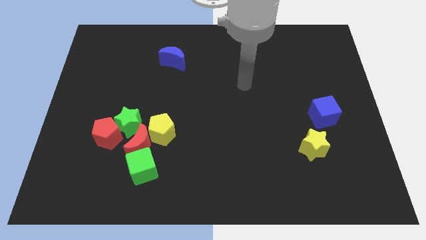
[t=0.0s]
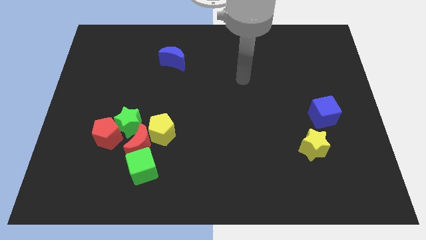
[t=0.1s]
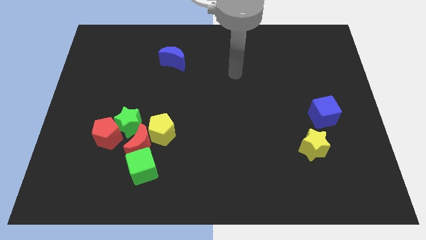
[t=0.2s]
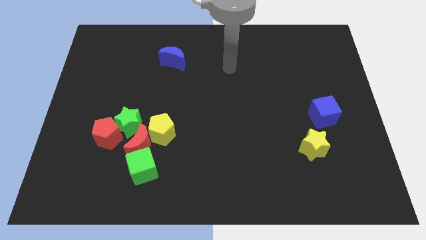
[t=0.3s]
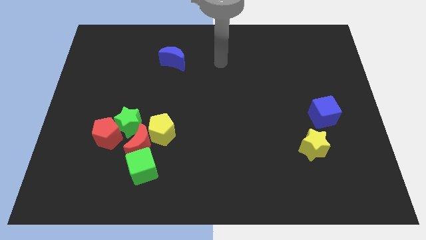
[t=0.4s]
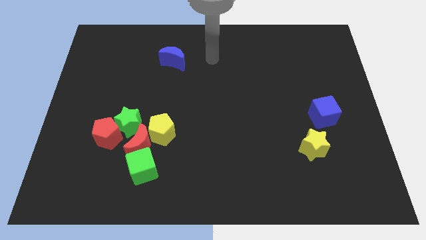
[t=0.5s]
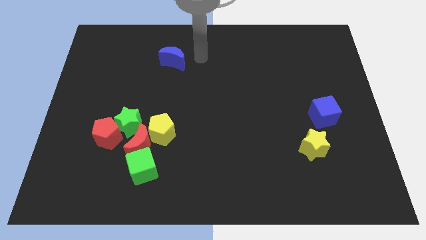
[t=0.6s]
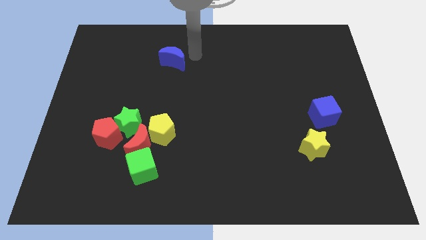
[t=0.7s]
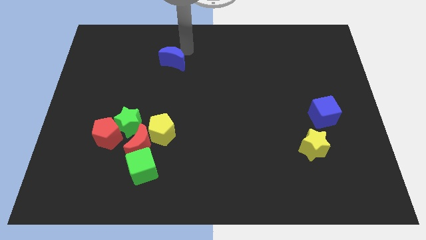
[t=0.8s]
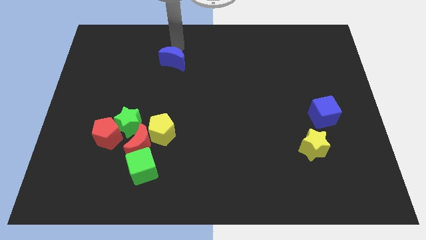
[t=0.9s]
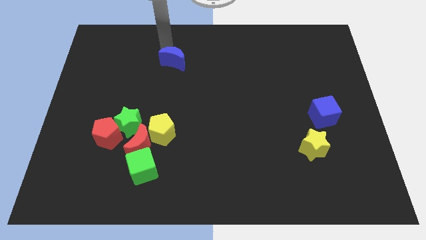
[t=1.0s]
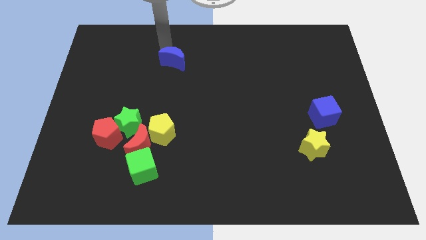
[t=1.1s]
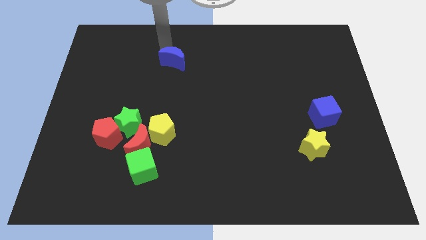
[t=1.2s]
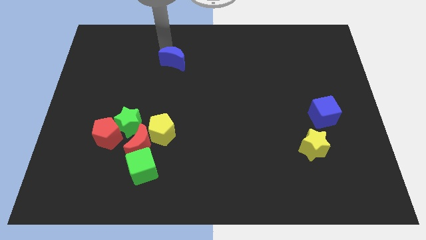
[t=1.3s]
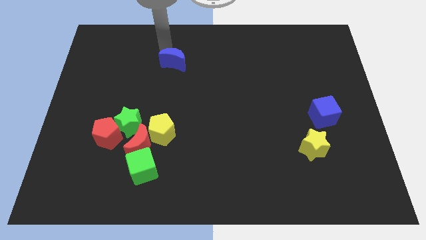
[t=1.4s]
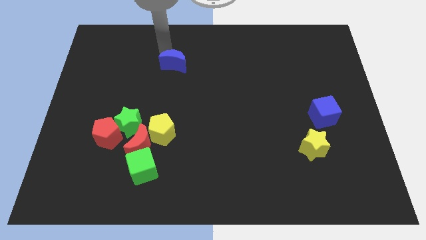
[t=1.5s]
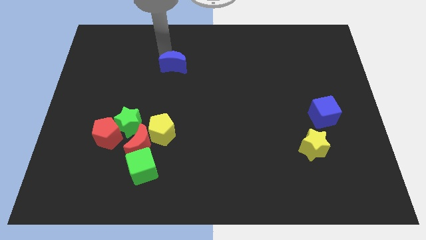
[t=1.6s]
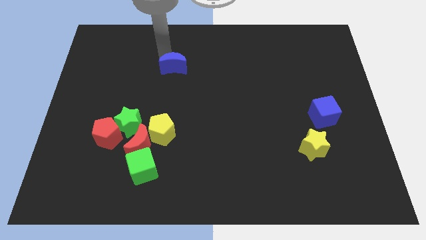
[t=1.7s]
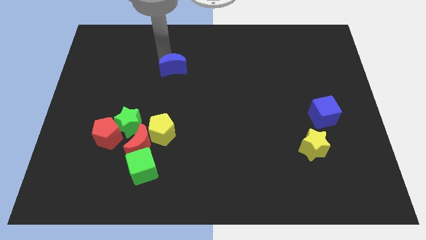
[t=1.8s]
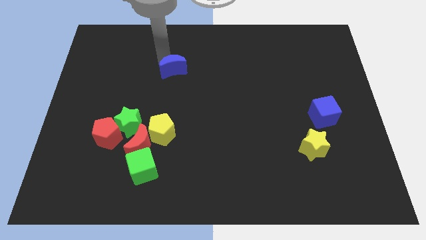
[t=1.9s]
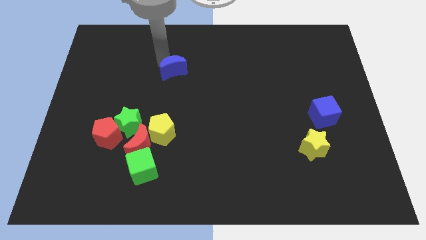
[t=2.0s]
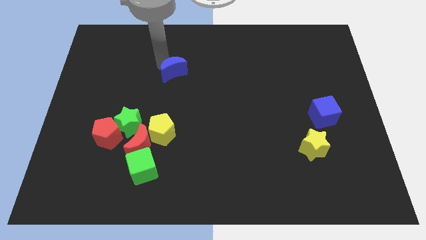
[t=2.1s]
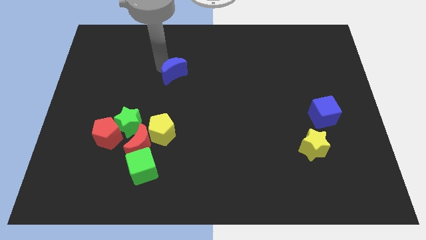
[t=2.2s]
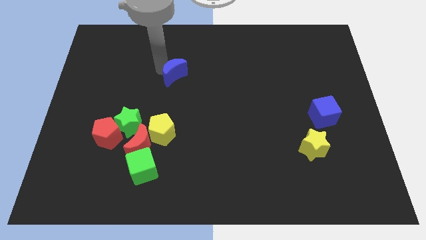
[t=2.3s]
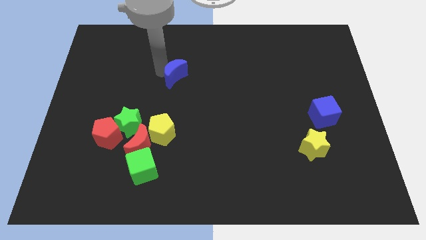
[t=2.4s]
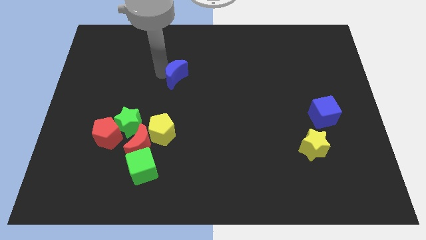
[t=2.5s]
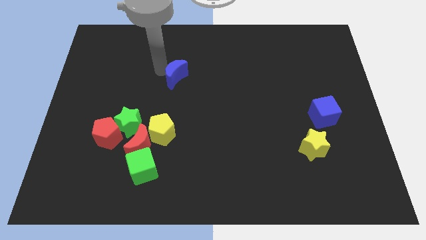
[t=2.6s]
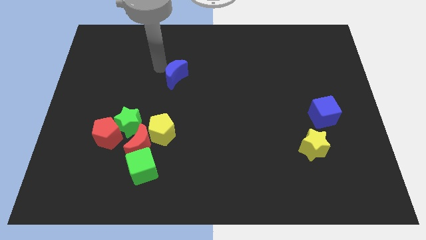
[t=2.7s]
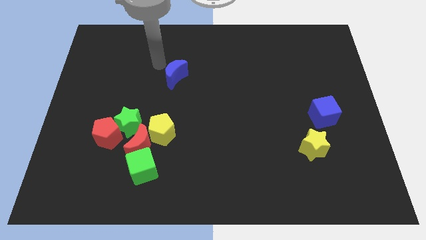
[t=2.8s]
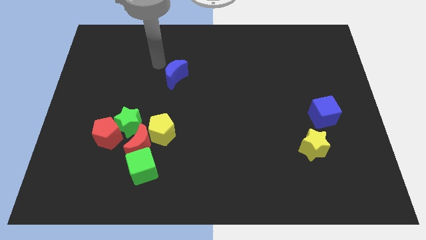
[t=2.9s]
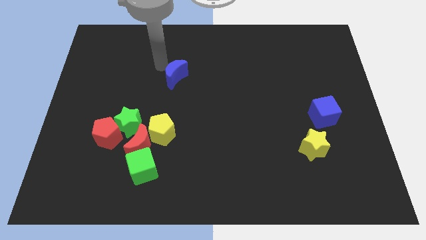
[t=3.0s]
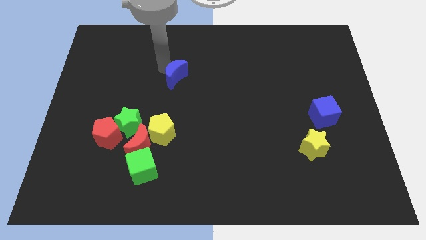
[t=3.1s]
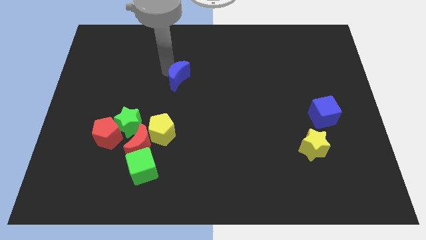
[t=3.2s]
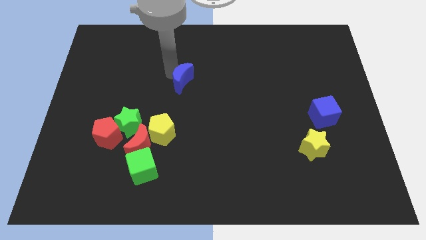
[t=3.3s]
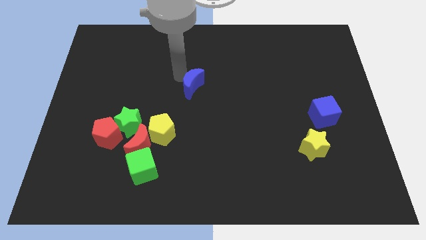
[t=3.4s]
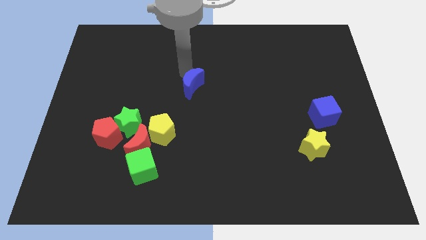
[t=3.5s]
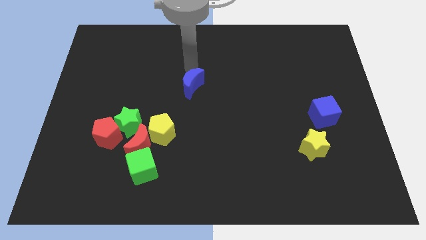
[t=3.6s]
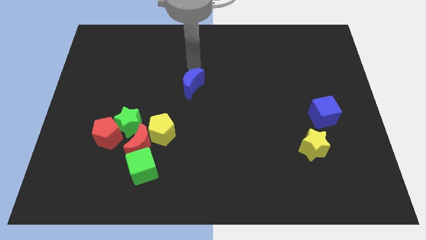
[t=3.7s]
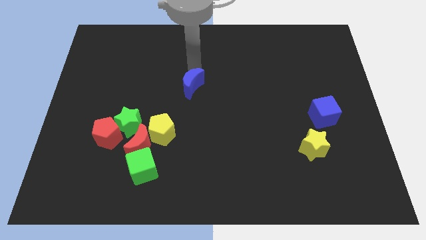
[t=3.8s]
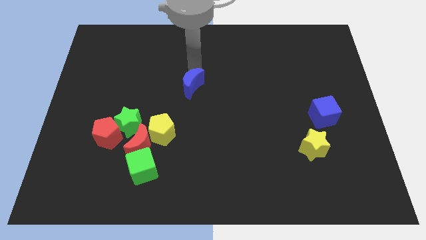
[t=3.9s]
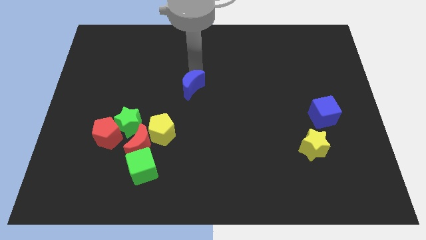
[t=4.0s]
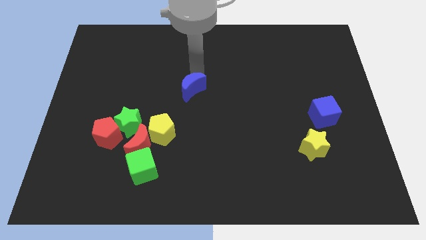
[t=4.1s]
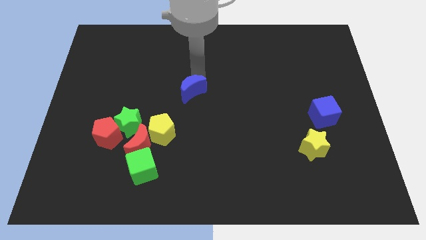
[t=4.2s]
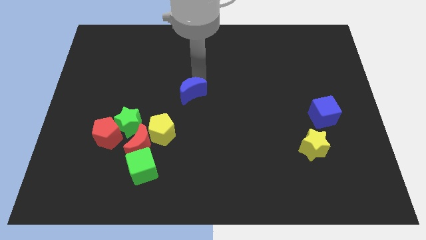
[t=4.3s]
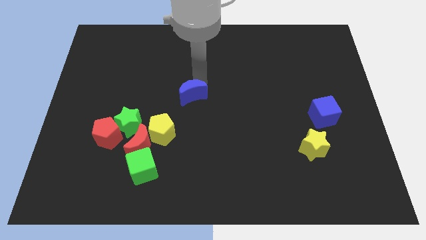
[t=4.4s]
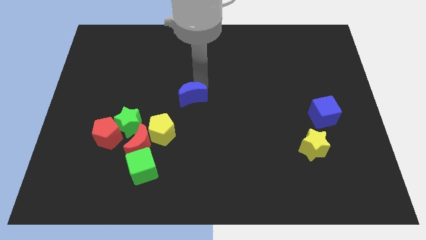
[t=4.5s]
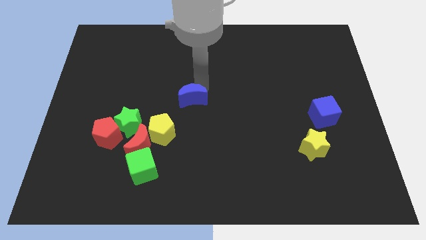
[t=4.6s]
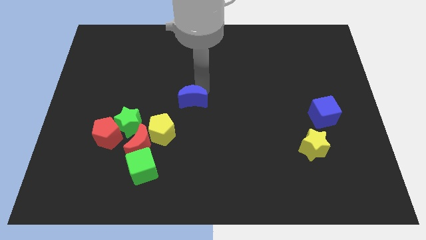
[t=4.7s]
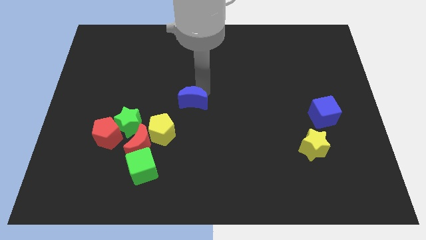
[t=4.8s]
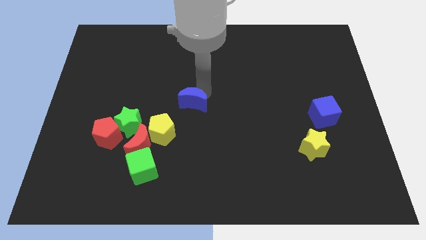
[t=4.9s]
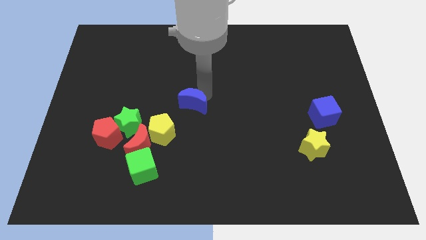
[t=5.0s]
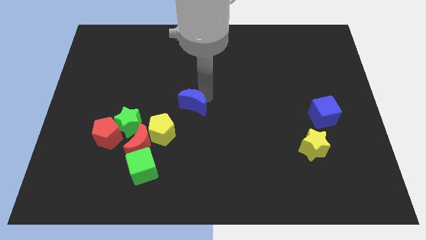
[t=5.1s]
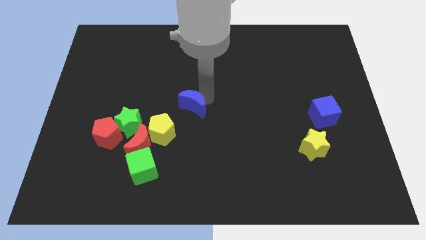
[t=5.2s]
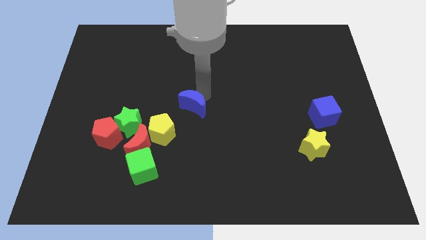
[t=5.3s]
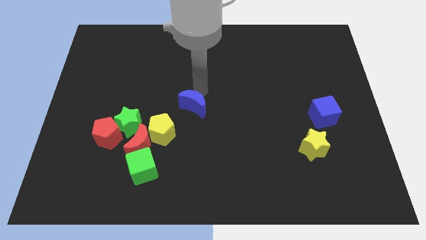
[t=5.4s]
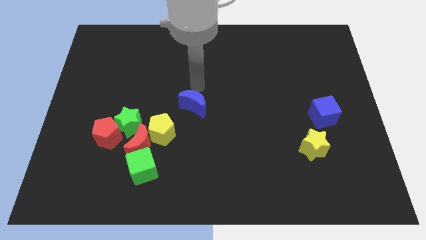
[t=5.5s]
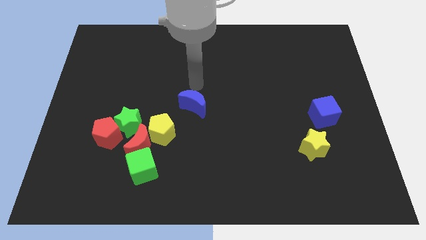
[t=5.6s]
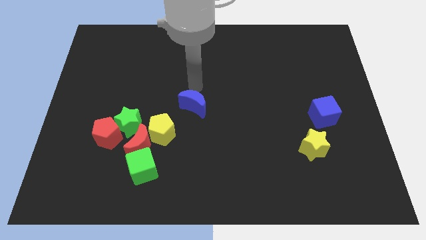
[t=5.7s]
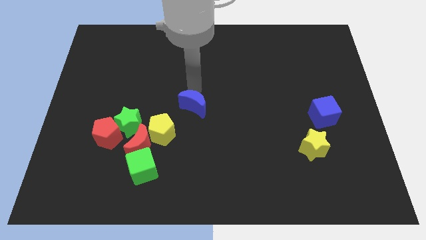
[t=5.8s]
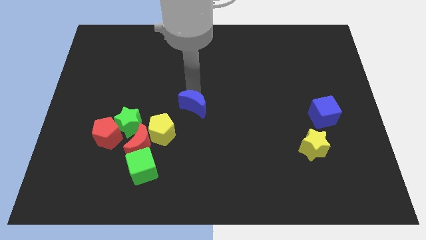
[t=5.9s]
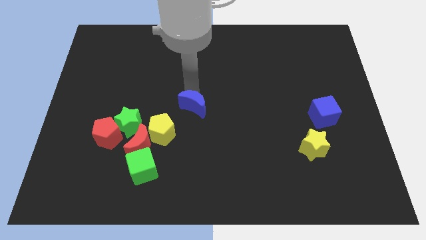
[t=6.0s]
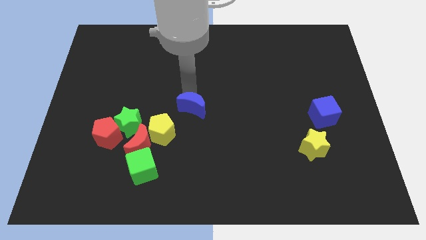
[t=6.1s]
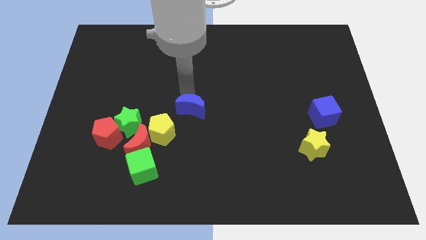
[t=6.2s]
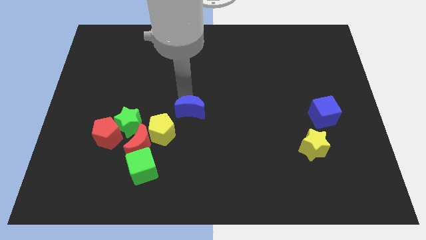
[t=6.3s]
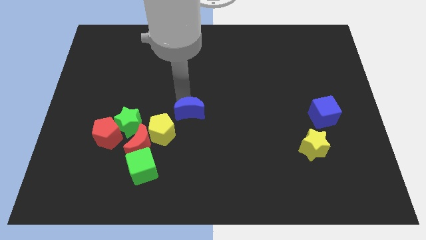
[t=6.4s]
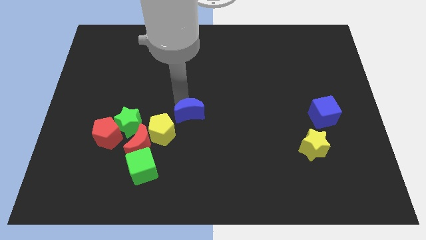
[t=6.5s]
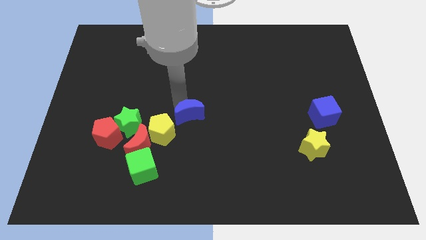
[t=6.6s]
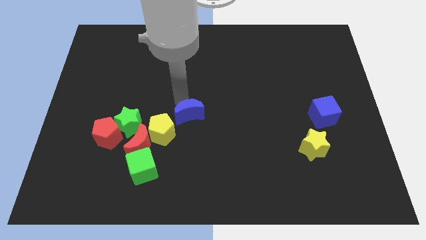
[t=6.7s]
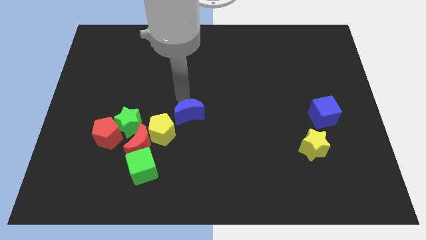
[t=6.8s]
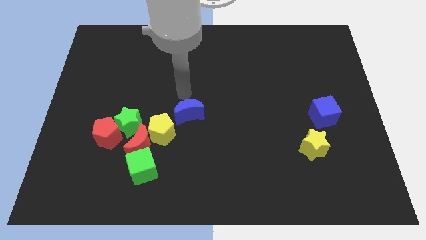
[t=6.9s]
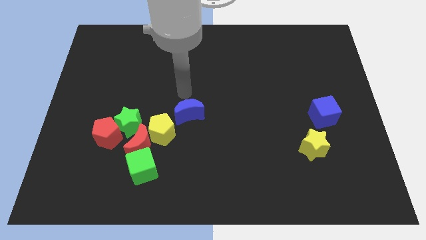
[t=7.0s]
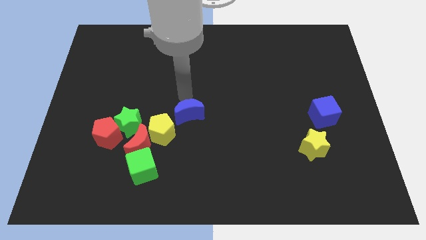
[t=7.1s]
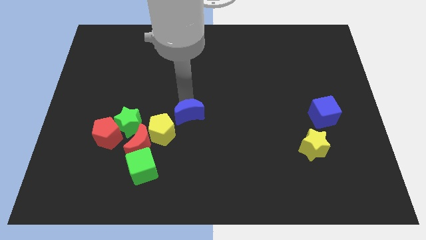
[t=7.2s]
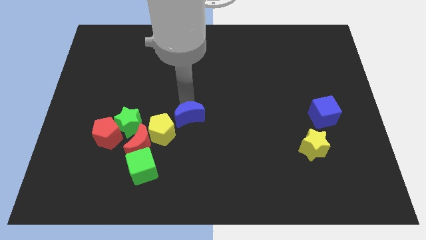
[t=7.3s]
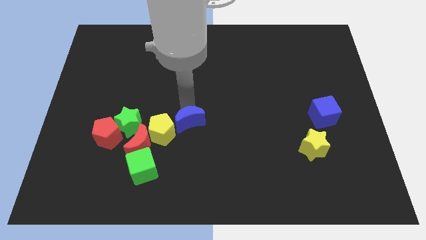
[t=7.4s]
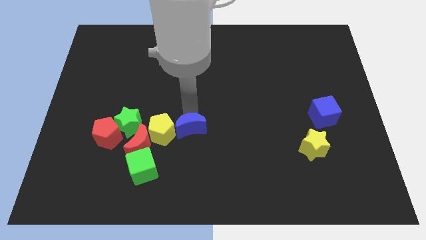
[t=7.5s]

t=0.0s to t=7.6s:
slide the blue moon downwards
